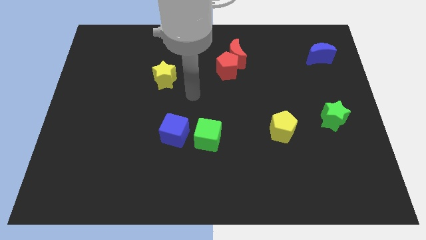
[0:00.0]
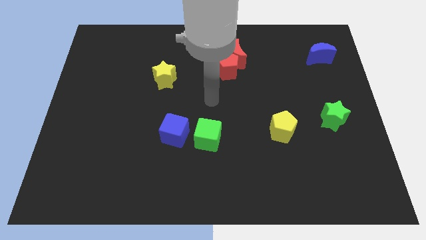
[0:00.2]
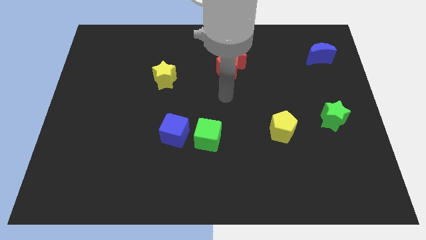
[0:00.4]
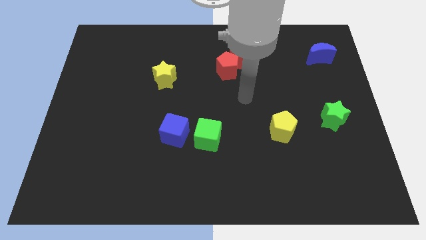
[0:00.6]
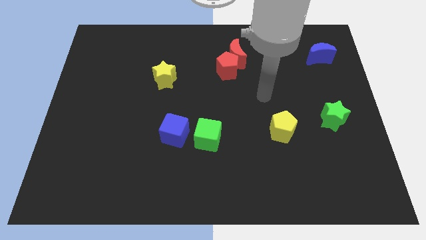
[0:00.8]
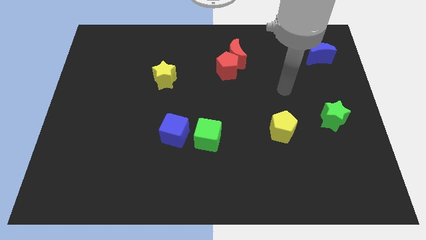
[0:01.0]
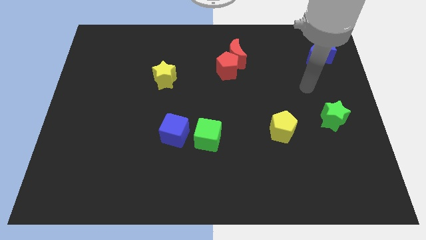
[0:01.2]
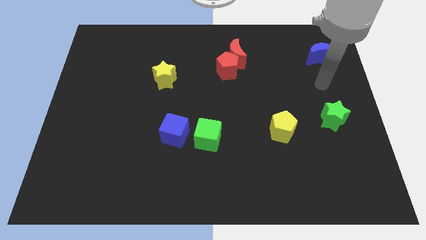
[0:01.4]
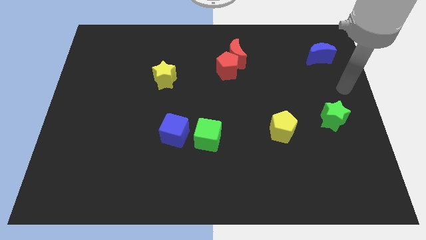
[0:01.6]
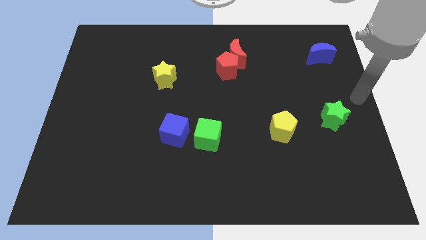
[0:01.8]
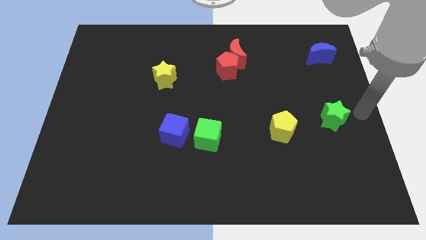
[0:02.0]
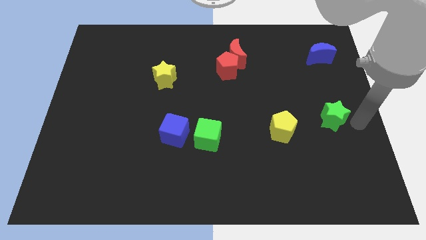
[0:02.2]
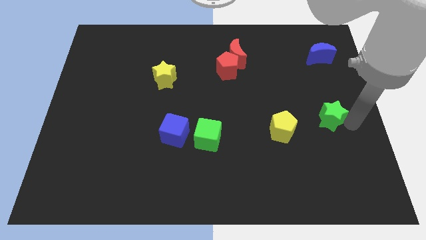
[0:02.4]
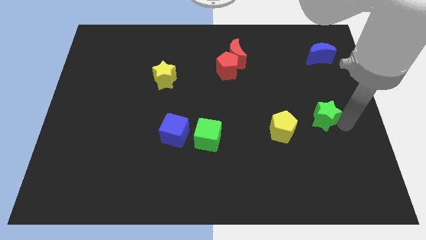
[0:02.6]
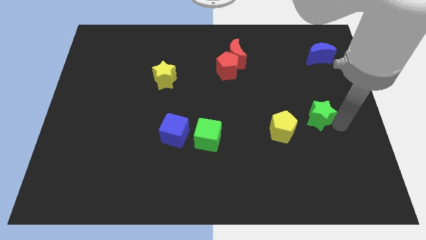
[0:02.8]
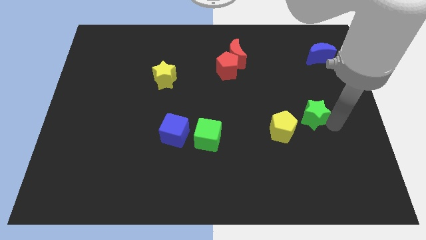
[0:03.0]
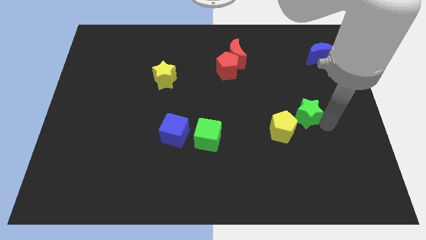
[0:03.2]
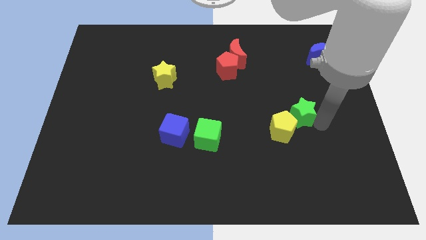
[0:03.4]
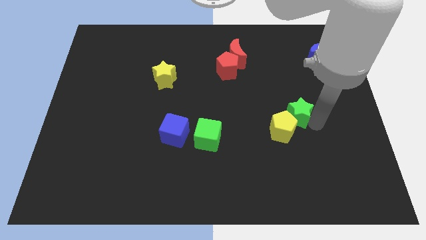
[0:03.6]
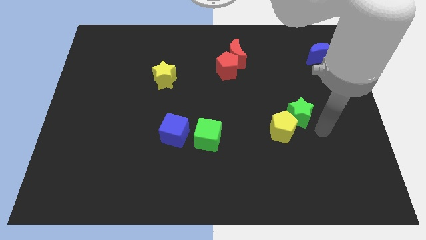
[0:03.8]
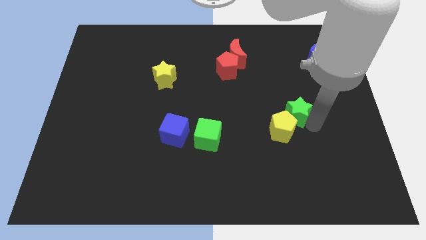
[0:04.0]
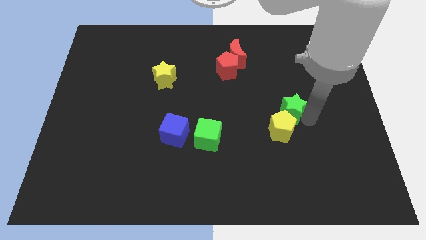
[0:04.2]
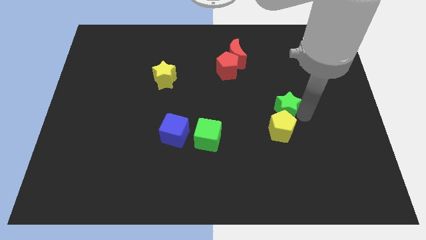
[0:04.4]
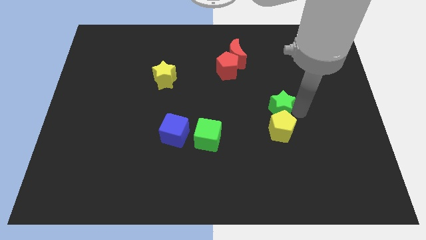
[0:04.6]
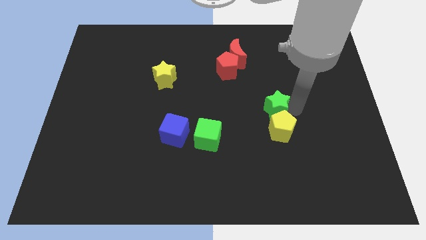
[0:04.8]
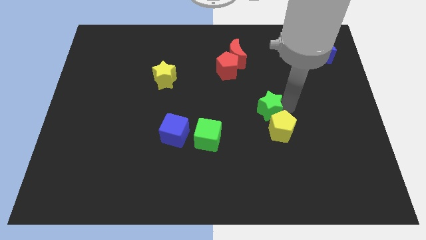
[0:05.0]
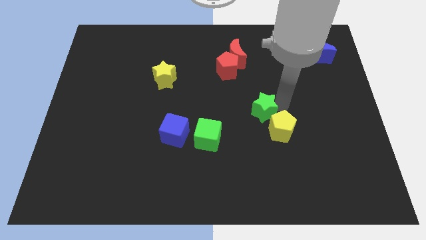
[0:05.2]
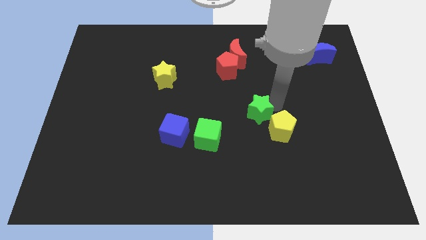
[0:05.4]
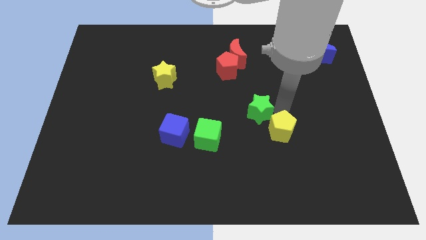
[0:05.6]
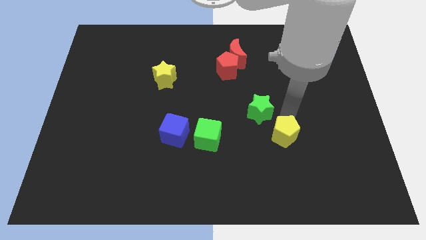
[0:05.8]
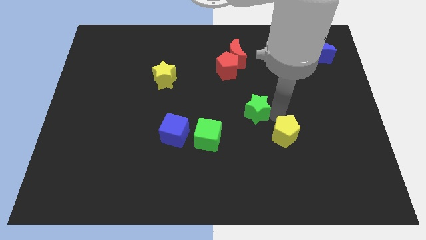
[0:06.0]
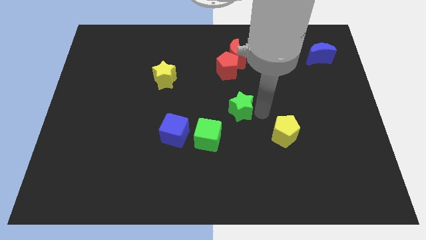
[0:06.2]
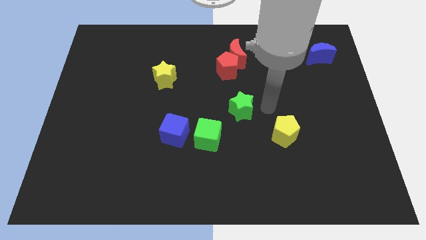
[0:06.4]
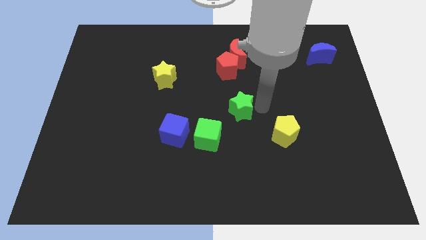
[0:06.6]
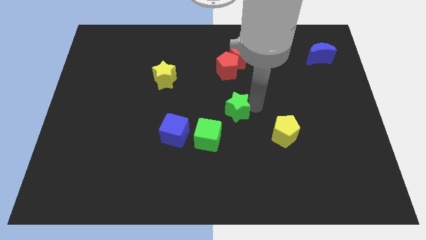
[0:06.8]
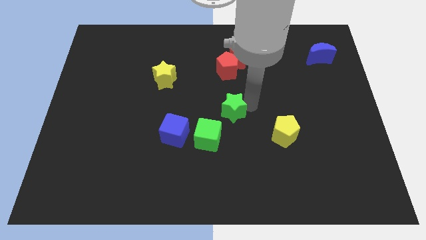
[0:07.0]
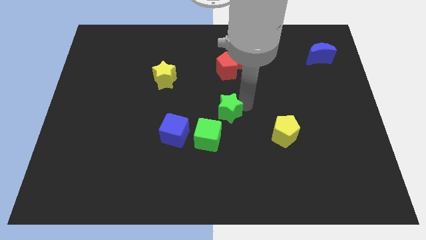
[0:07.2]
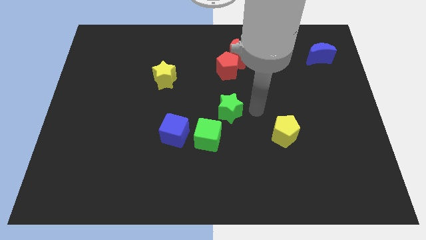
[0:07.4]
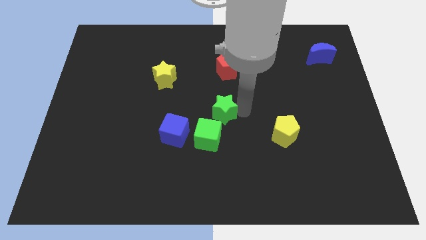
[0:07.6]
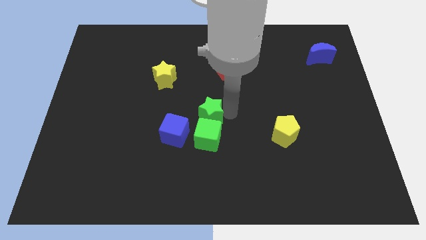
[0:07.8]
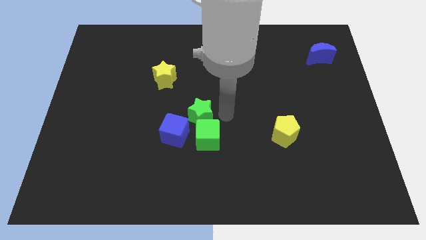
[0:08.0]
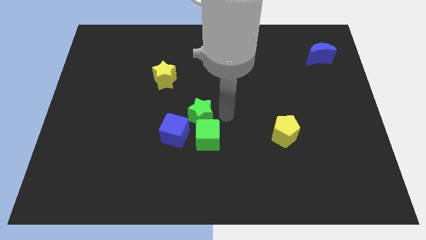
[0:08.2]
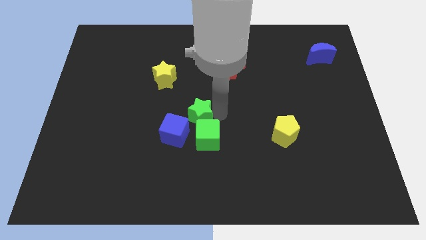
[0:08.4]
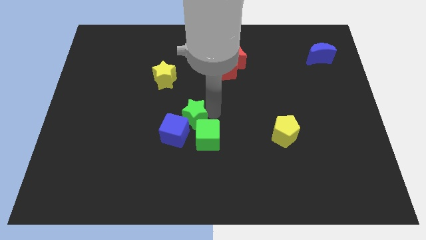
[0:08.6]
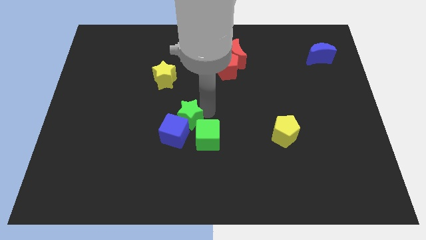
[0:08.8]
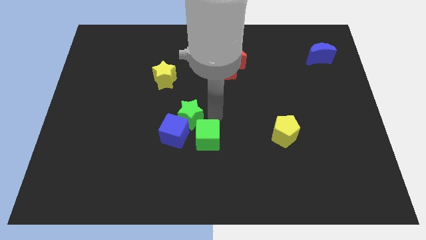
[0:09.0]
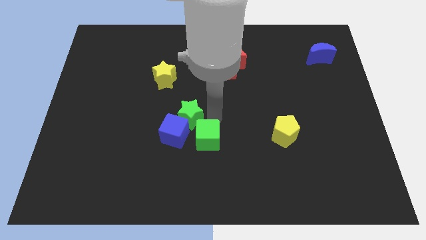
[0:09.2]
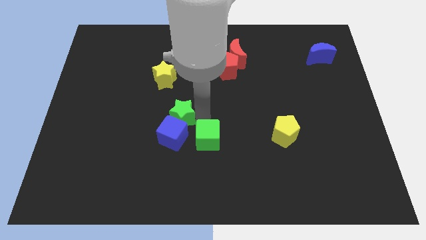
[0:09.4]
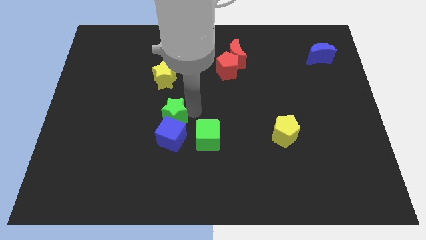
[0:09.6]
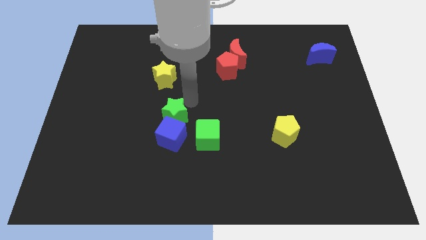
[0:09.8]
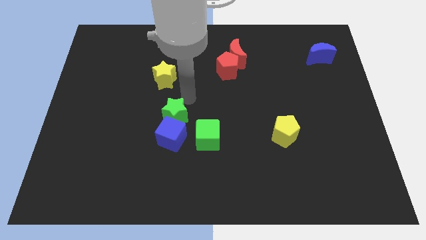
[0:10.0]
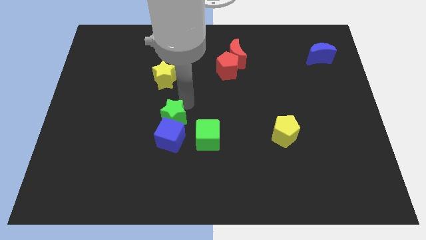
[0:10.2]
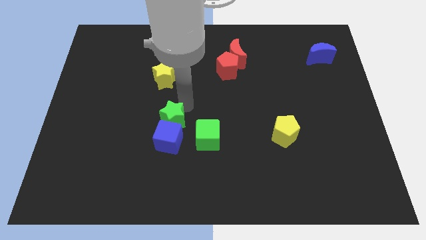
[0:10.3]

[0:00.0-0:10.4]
move the green star to the left of the green cube

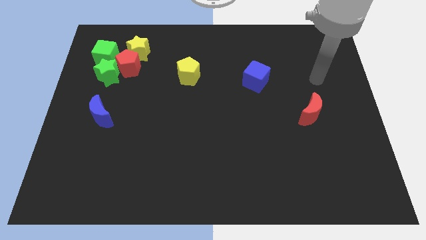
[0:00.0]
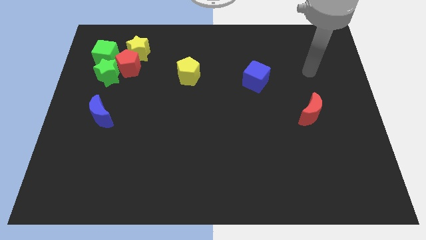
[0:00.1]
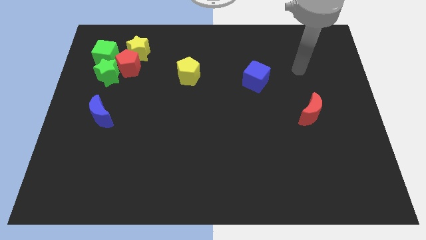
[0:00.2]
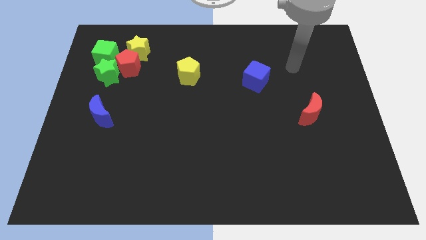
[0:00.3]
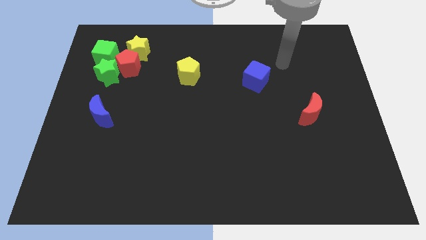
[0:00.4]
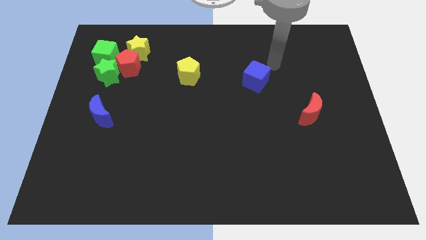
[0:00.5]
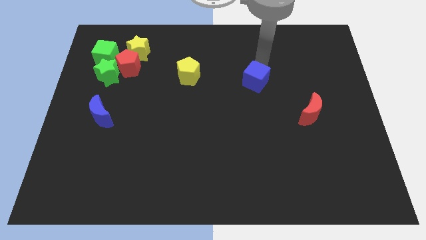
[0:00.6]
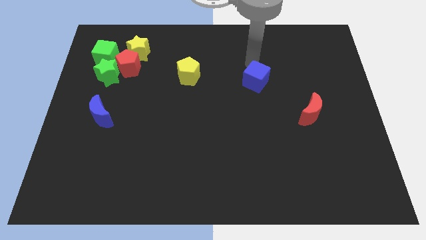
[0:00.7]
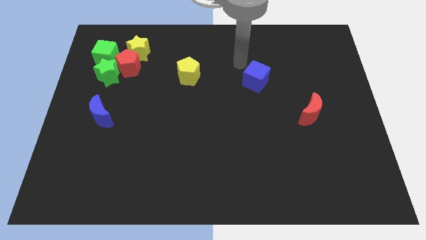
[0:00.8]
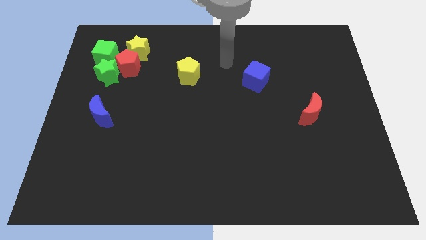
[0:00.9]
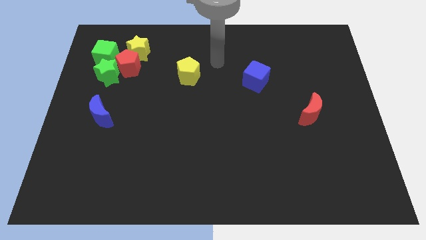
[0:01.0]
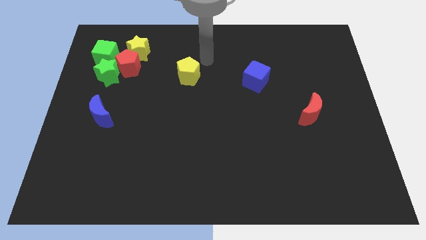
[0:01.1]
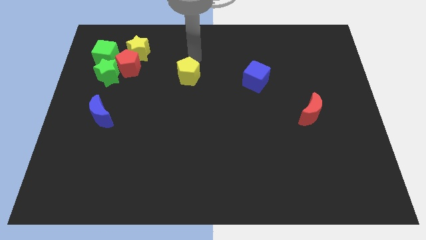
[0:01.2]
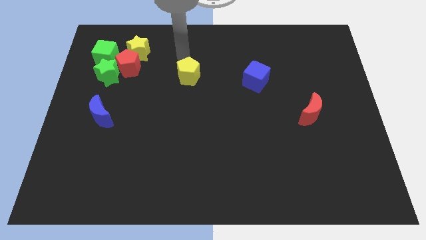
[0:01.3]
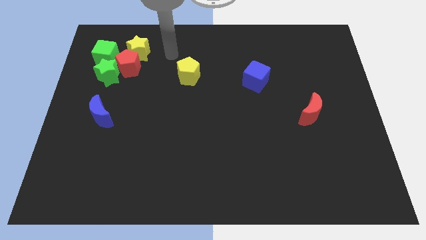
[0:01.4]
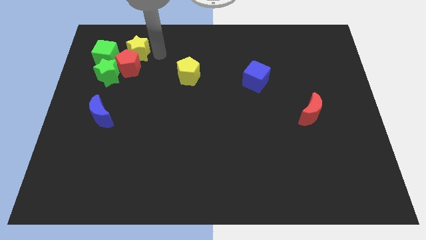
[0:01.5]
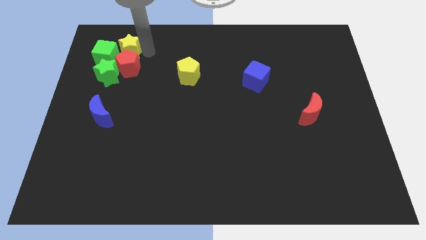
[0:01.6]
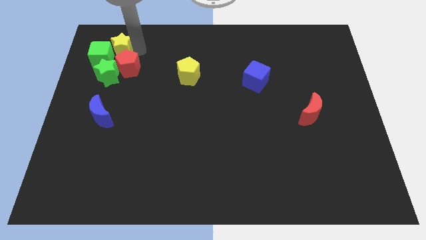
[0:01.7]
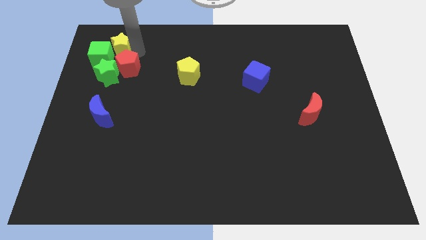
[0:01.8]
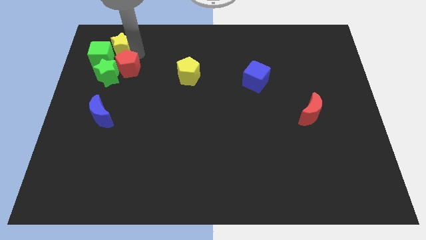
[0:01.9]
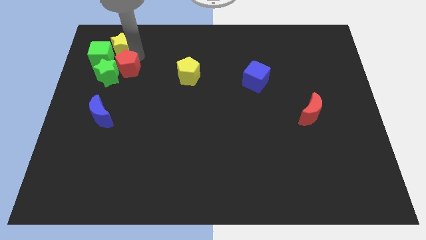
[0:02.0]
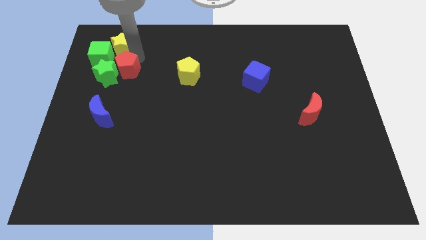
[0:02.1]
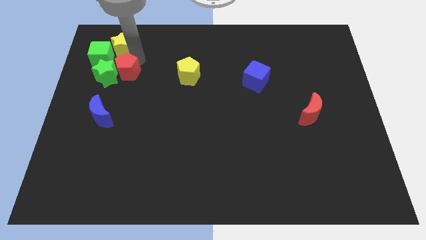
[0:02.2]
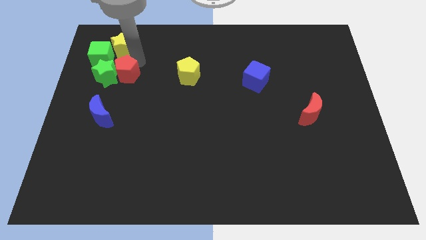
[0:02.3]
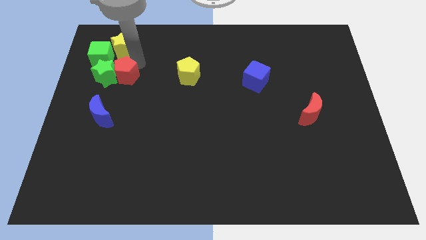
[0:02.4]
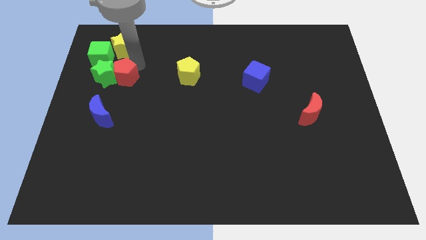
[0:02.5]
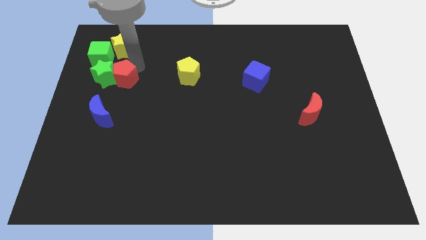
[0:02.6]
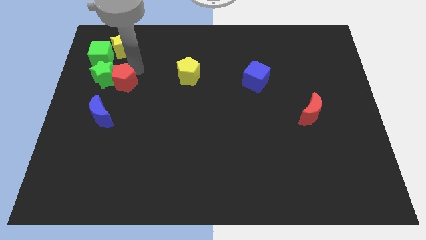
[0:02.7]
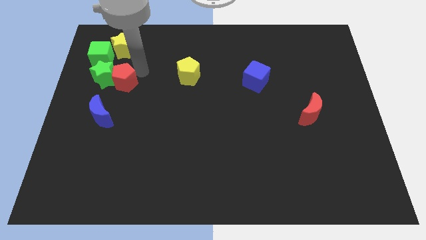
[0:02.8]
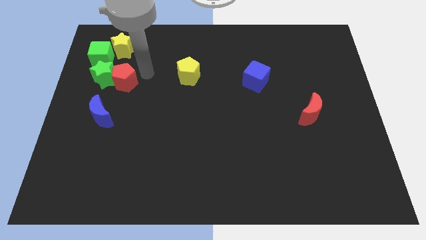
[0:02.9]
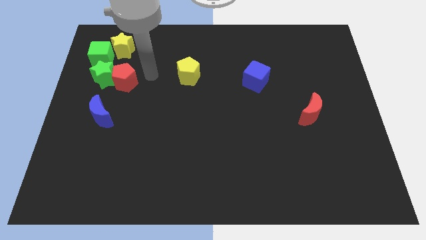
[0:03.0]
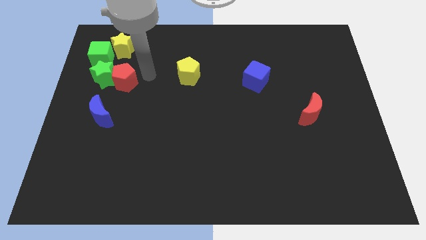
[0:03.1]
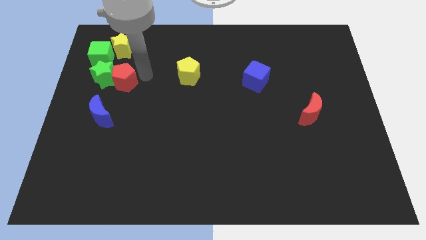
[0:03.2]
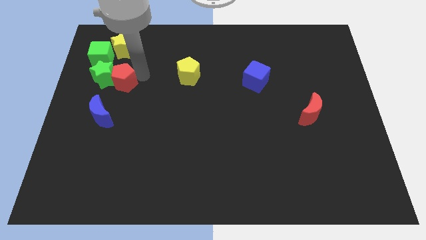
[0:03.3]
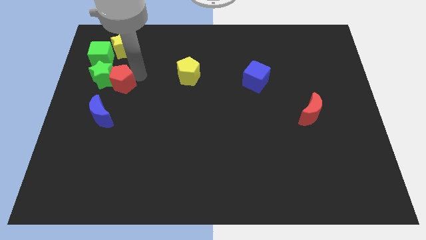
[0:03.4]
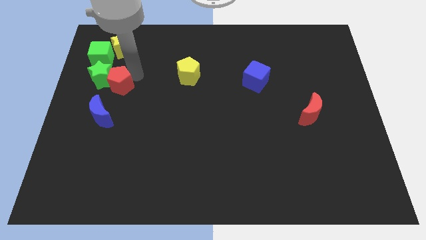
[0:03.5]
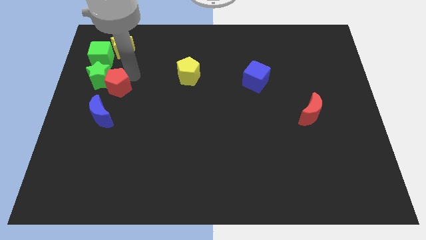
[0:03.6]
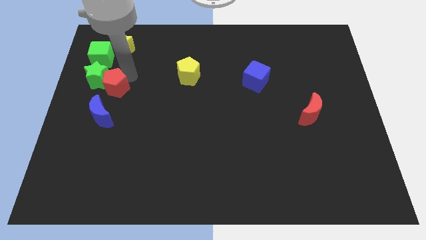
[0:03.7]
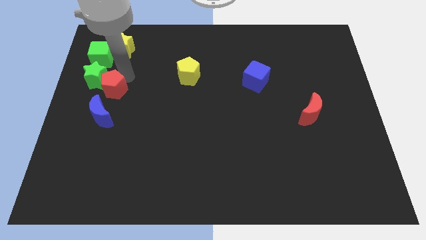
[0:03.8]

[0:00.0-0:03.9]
slide the red pentagon to the bottom of the green cube
